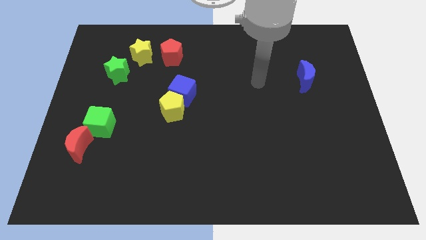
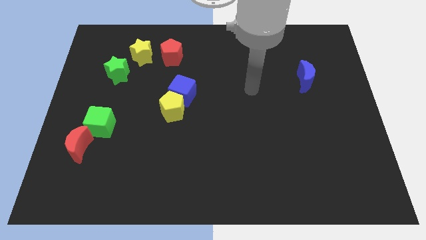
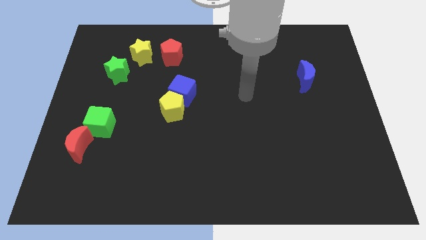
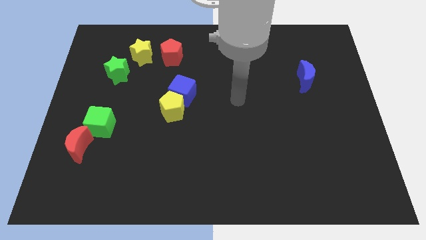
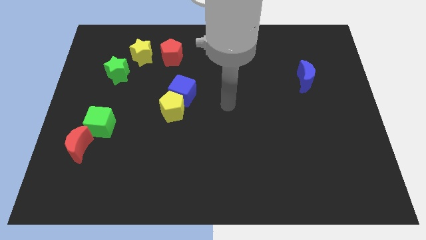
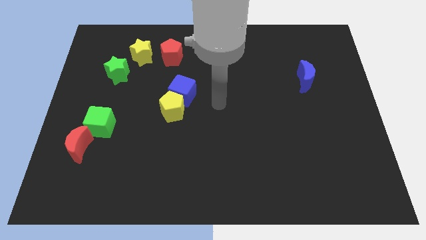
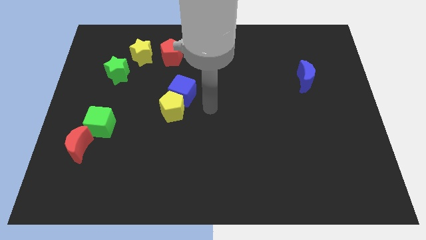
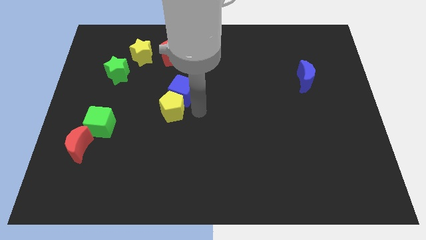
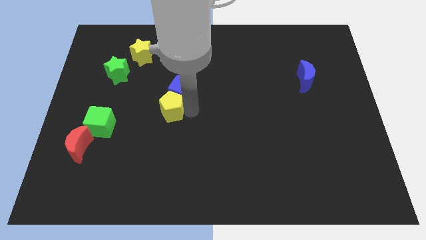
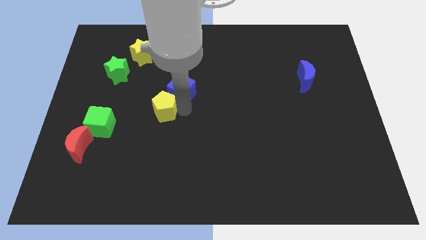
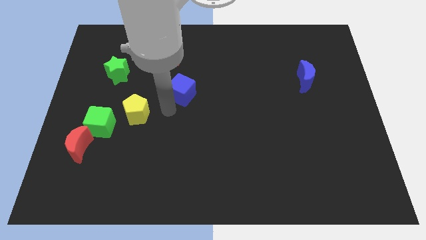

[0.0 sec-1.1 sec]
separate the blue cube from the yellow pentagon

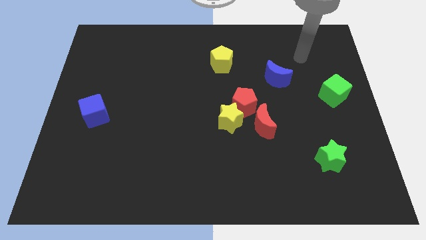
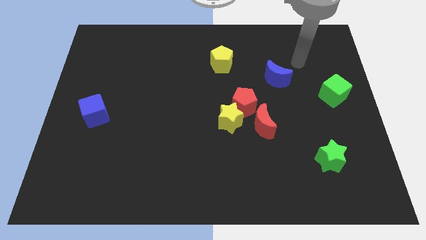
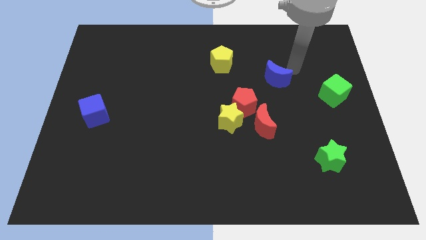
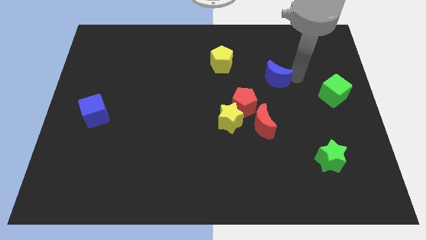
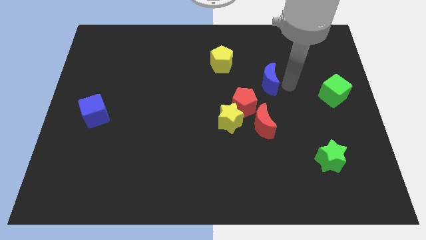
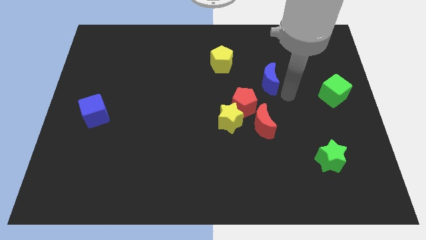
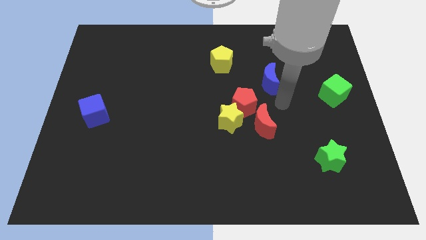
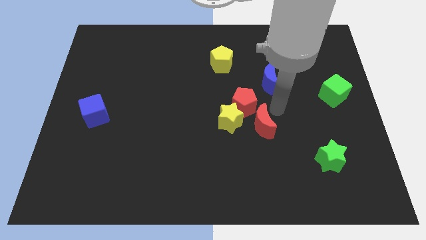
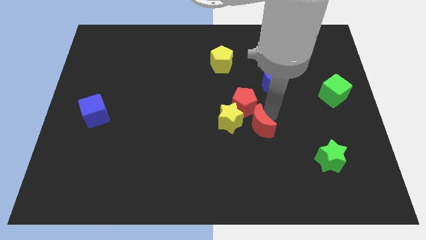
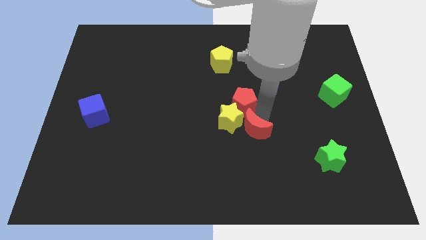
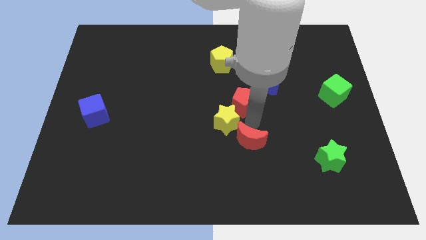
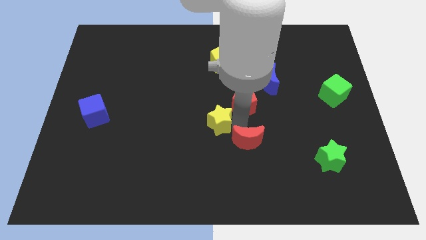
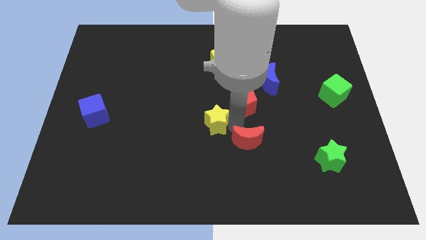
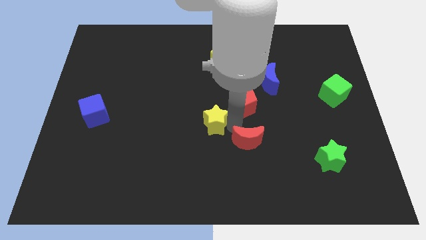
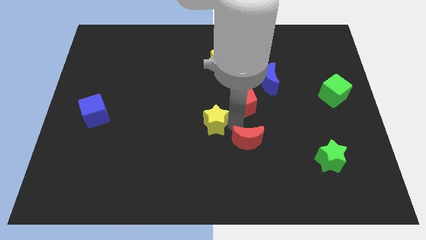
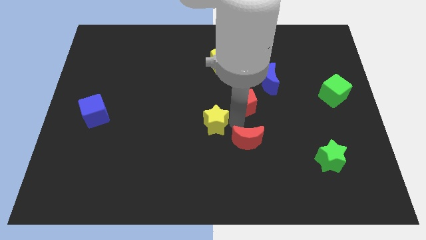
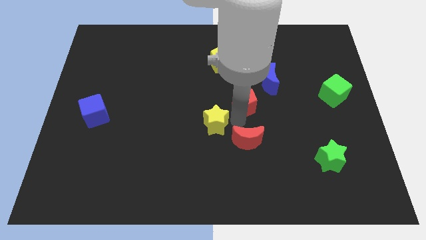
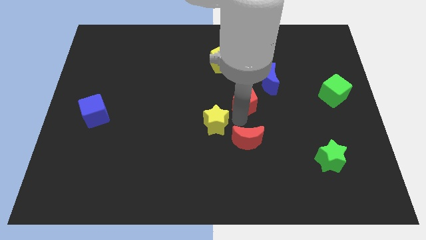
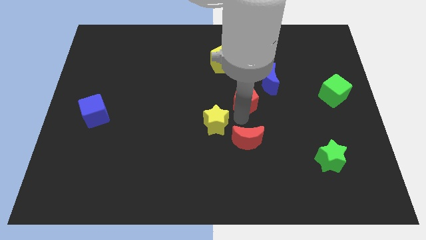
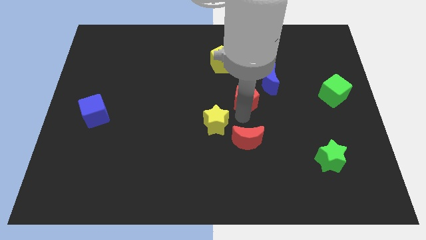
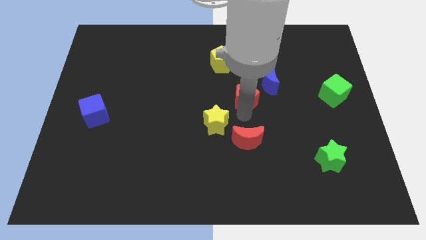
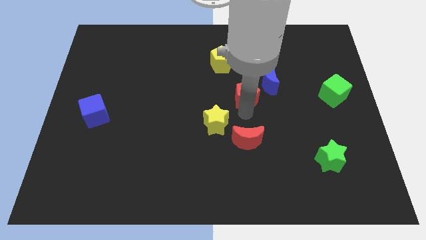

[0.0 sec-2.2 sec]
move the red pentagon away from the yellow star and red moon

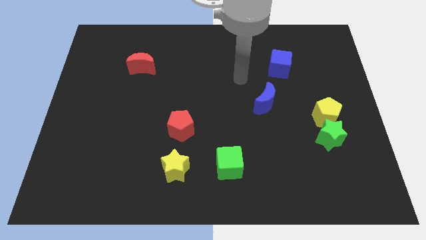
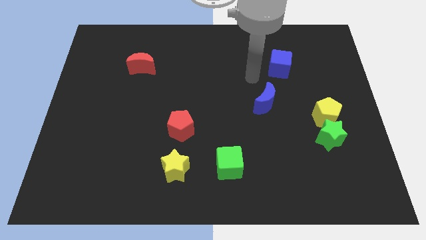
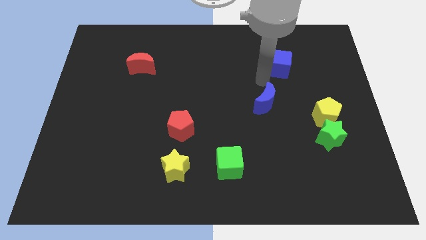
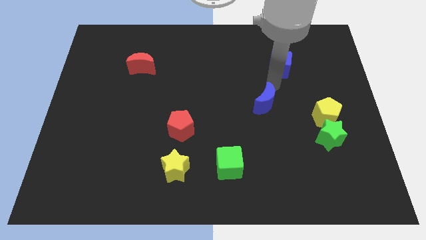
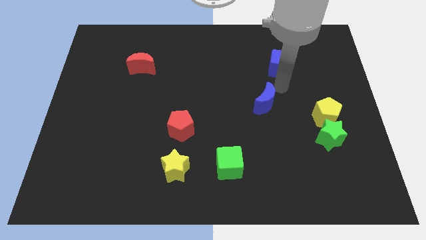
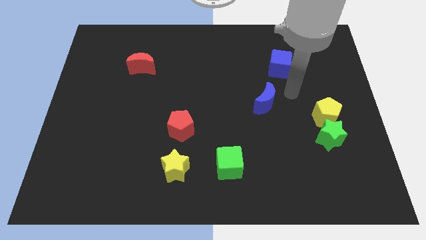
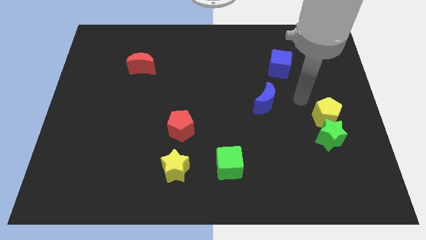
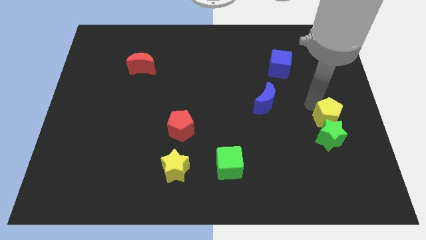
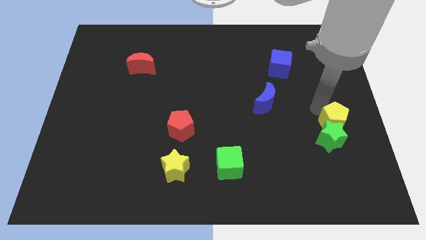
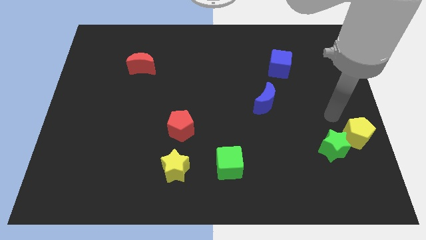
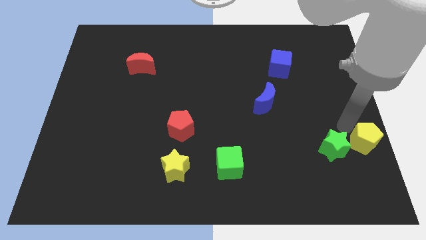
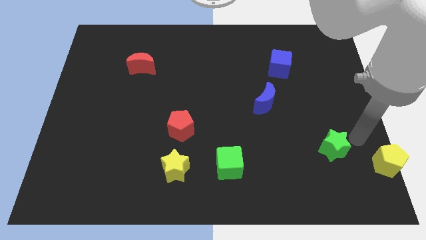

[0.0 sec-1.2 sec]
separate the green star from the yellow pentagon

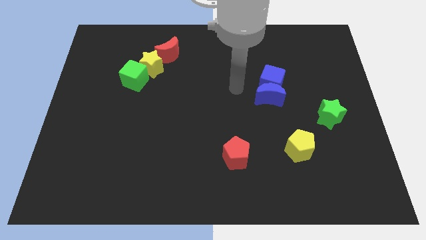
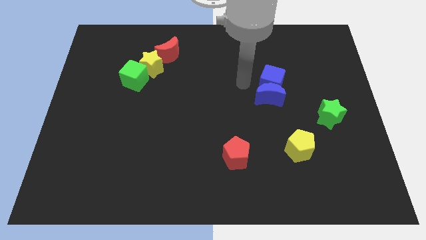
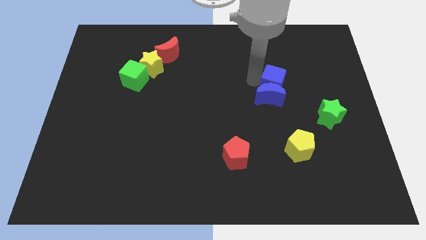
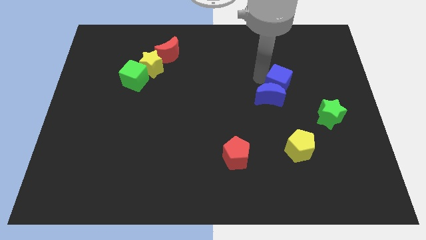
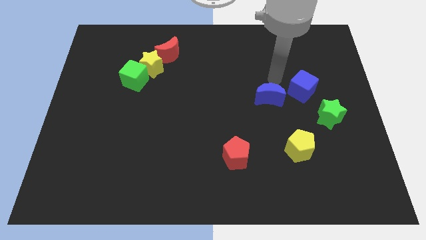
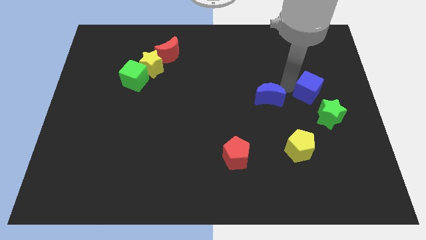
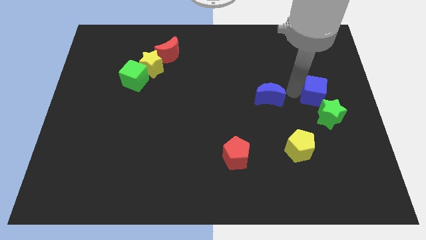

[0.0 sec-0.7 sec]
separate the blue moon from the blue cube

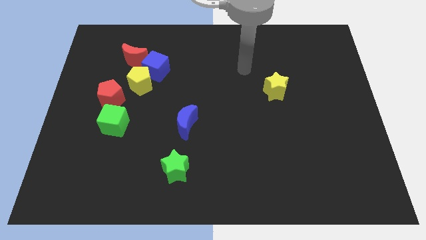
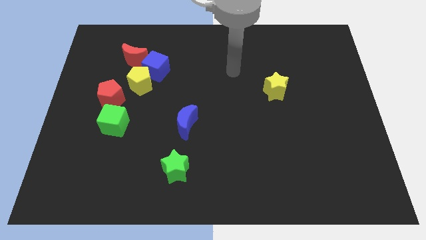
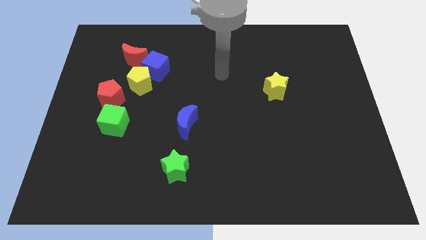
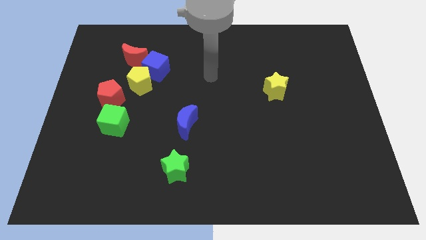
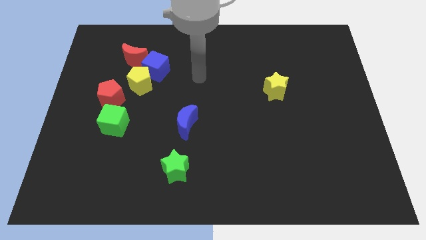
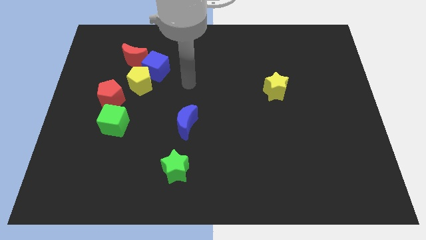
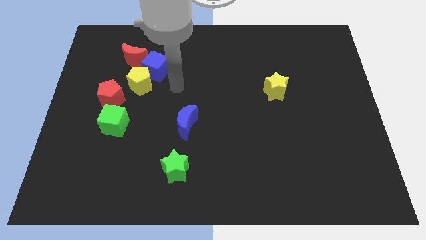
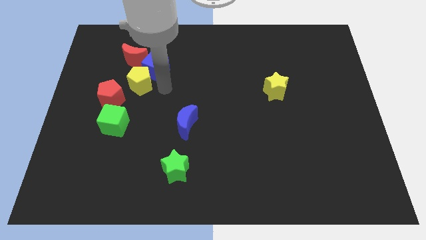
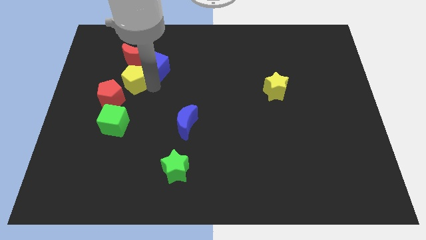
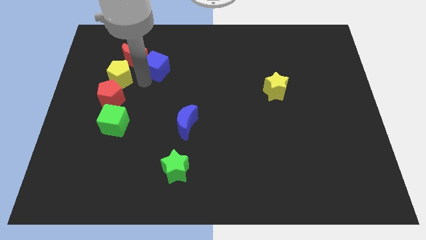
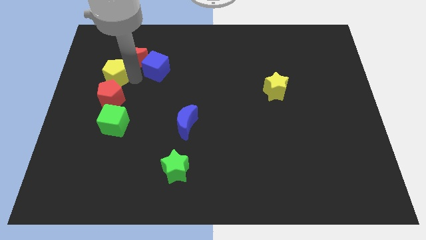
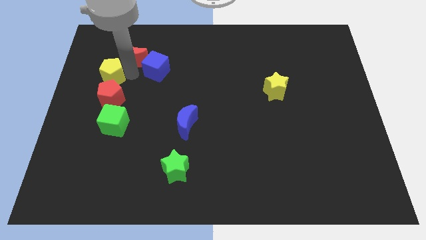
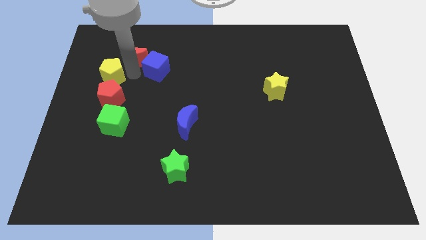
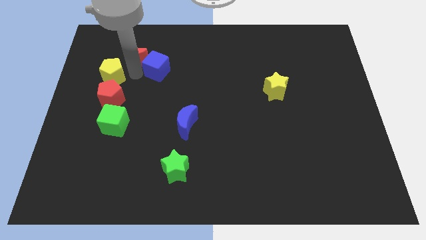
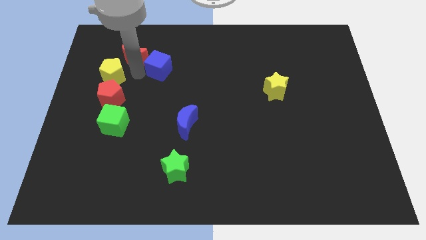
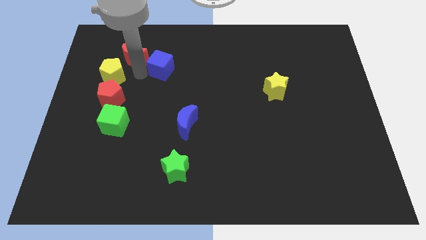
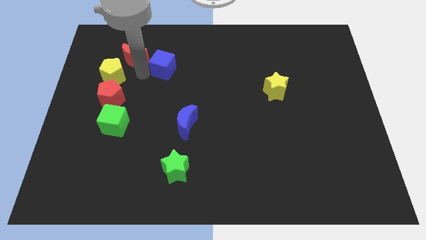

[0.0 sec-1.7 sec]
move the blue cube away from the yellow pentagon and red moon

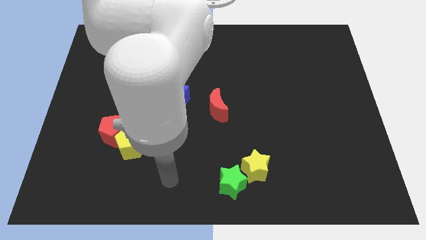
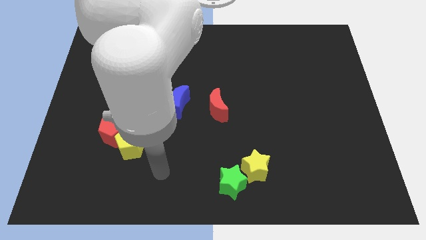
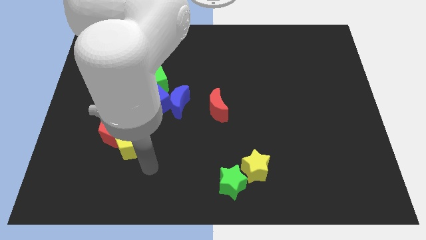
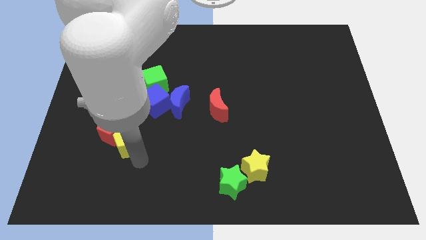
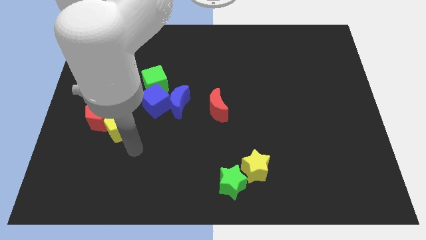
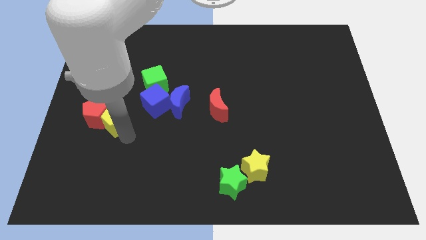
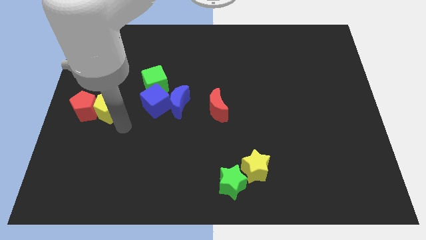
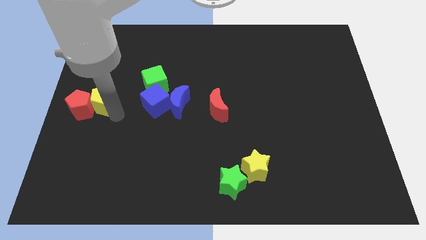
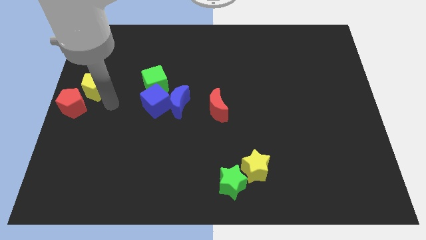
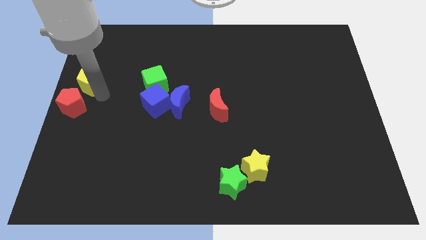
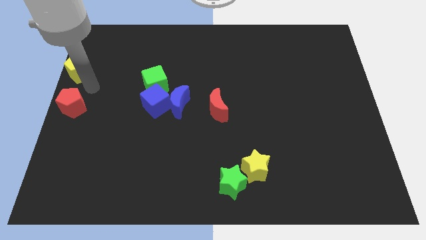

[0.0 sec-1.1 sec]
pull the red pentagon apart from the yellow pentagon

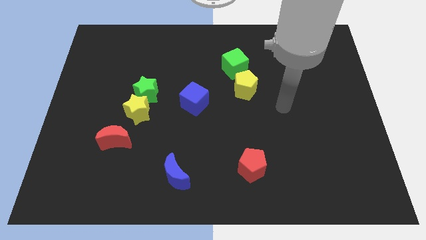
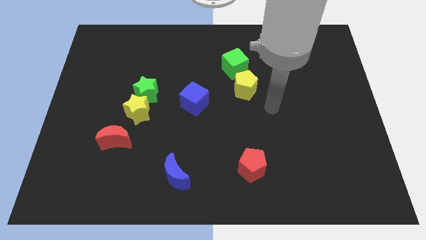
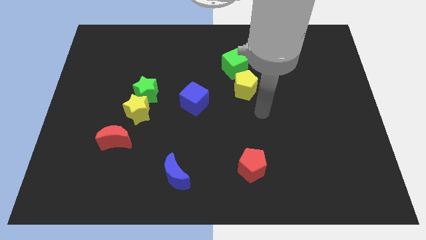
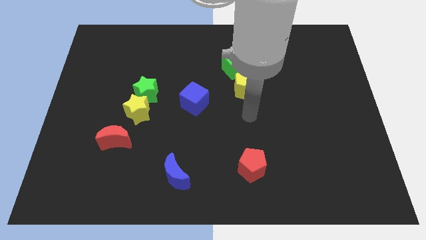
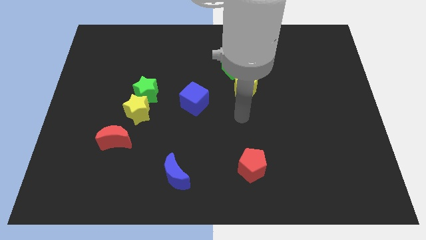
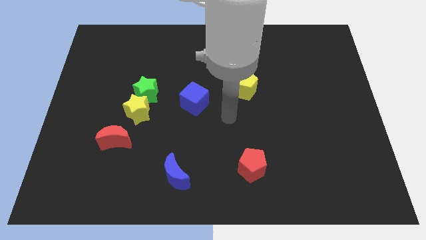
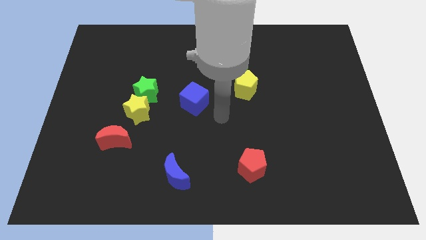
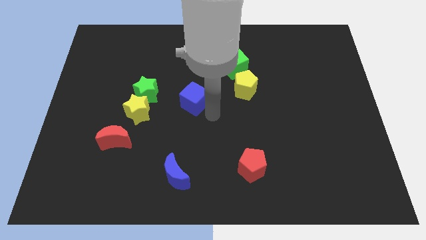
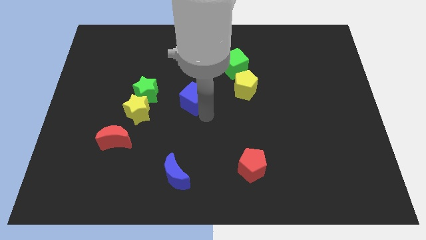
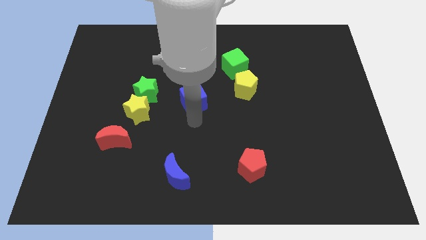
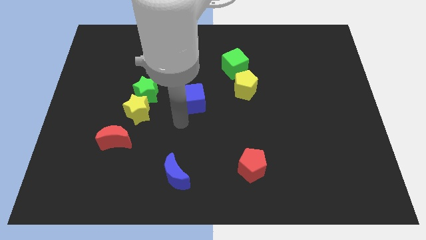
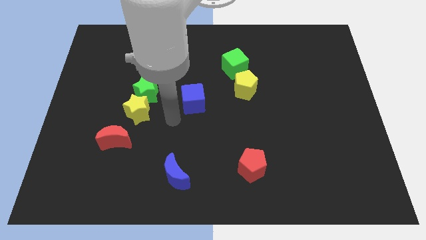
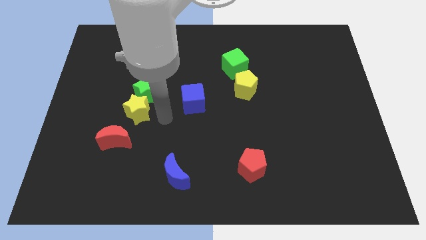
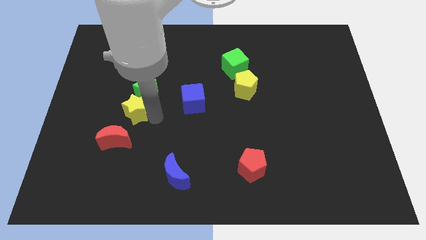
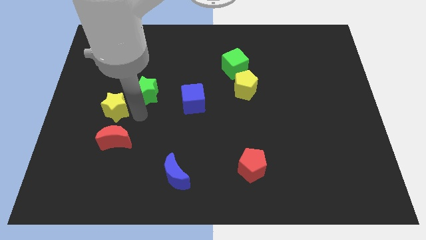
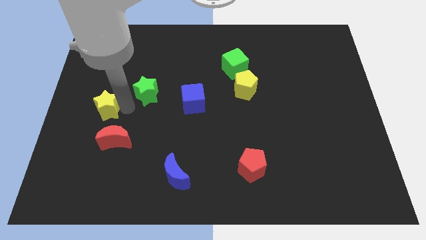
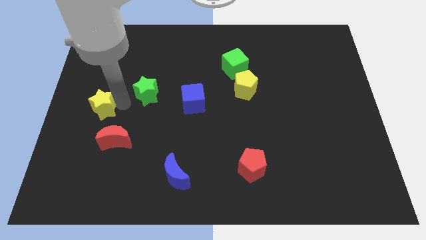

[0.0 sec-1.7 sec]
separate the green star from the yellow star
